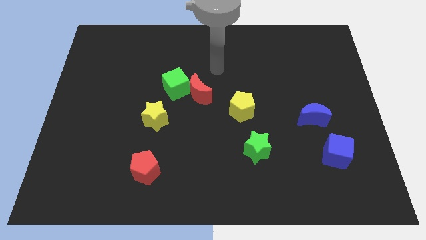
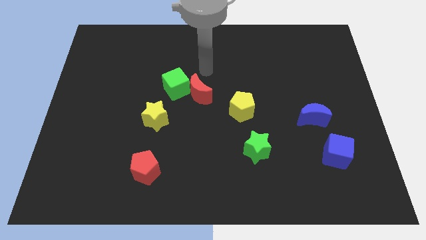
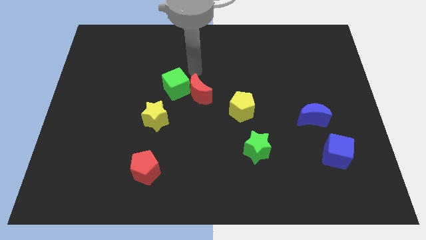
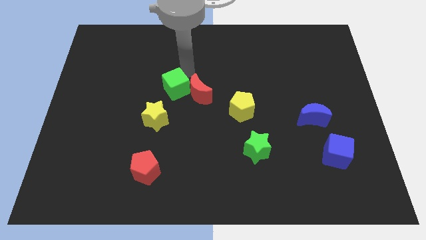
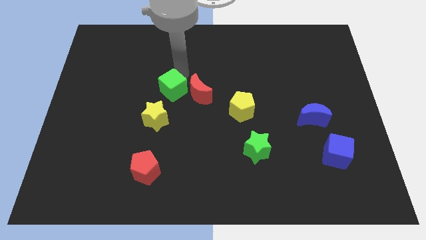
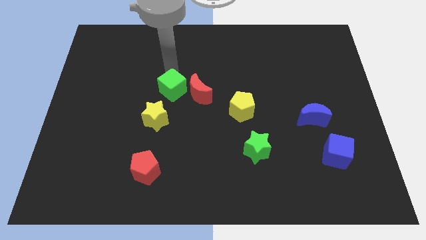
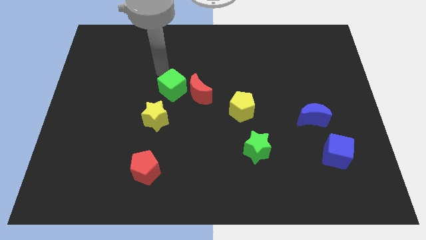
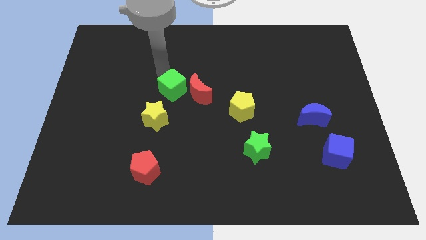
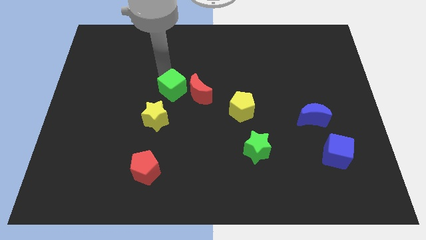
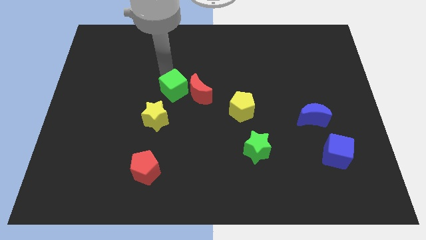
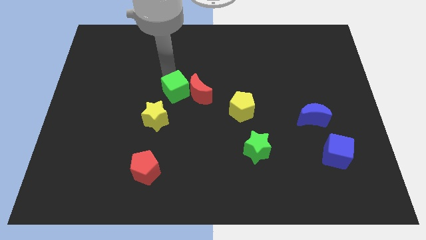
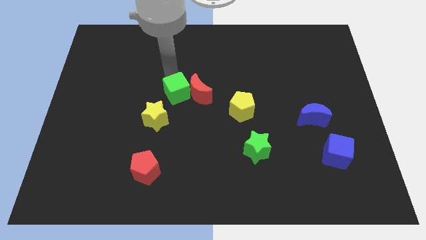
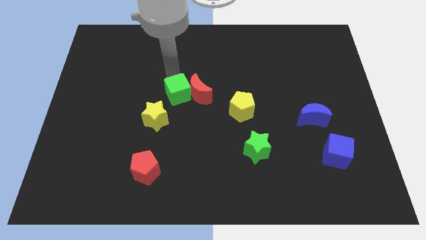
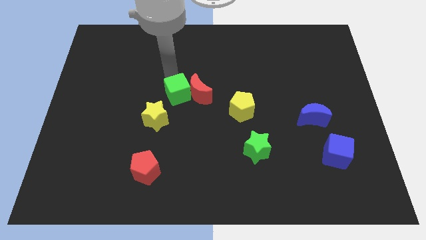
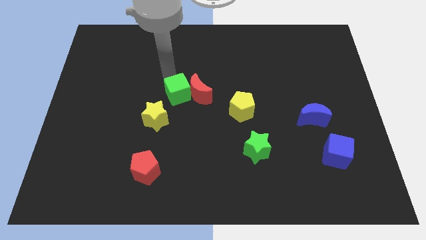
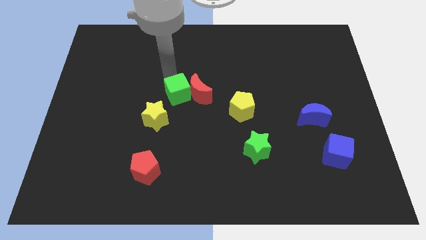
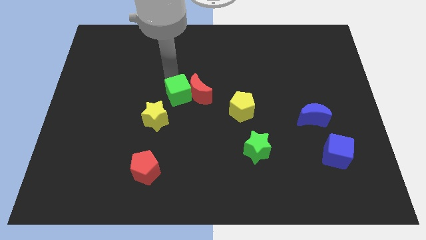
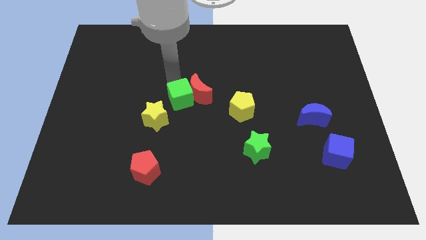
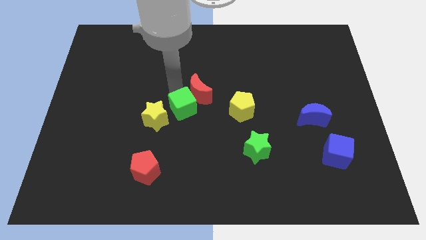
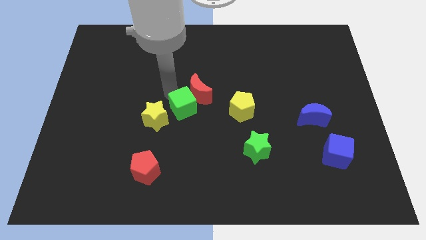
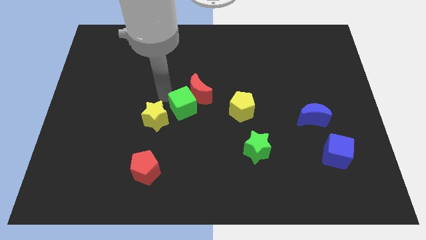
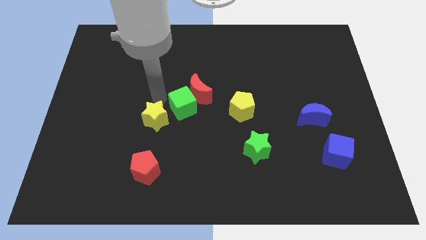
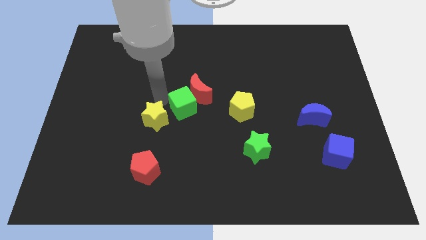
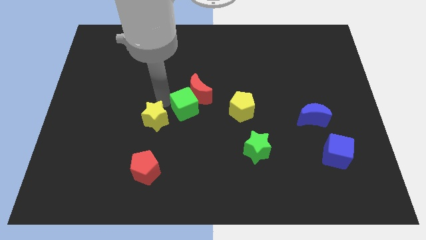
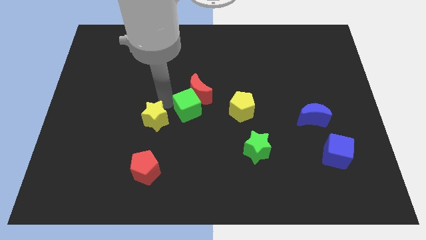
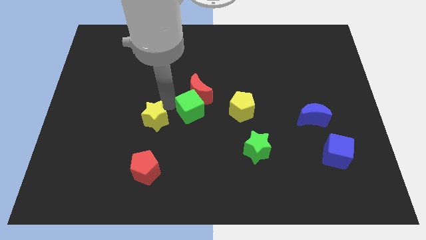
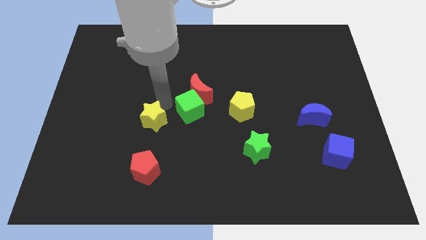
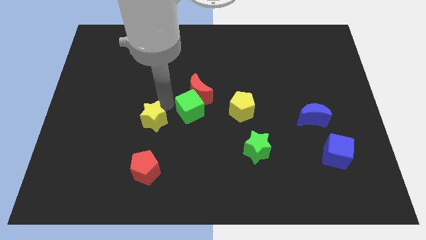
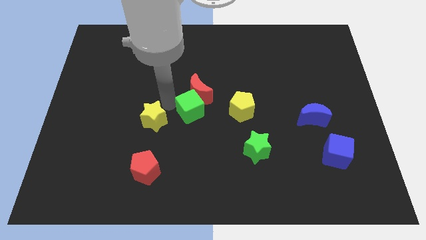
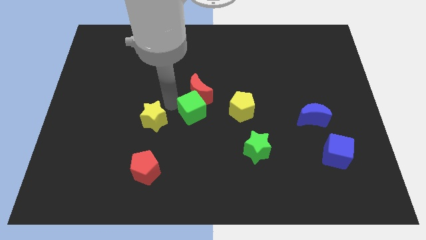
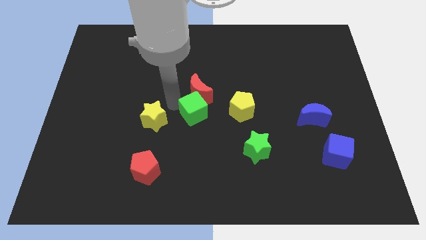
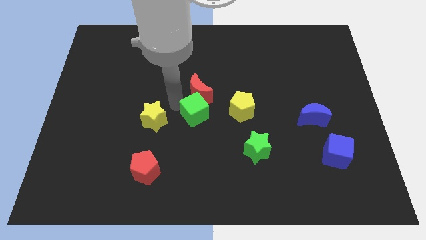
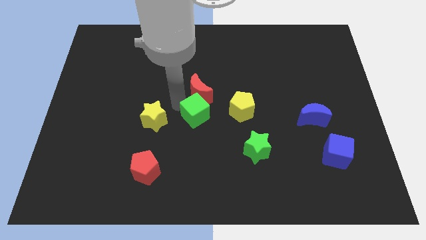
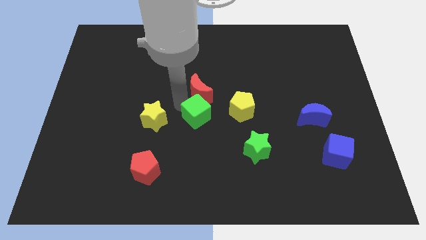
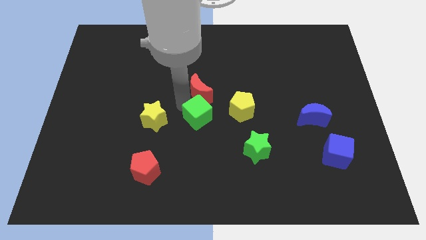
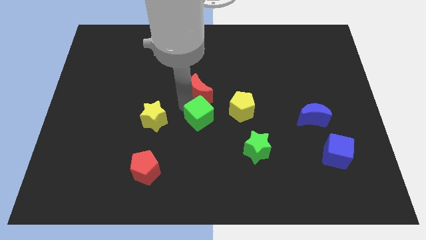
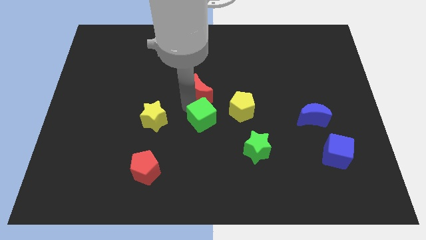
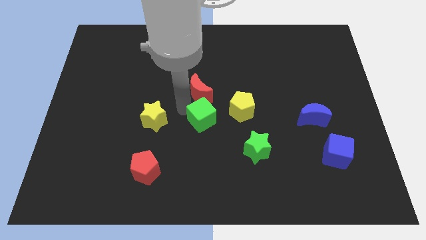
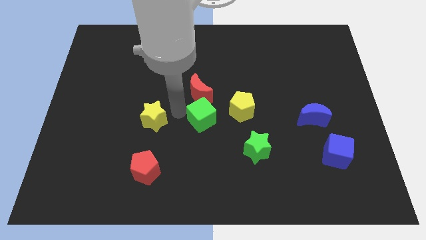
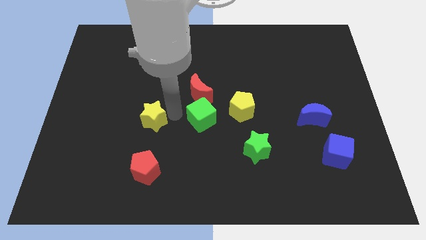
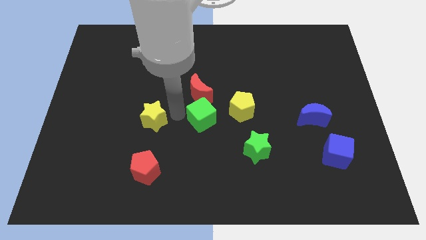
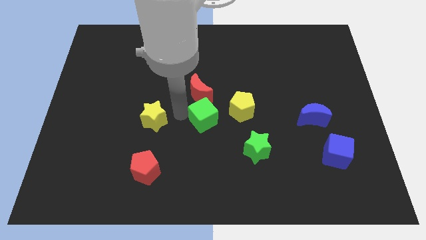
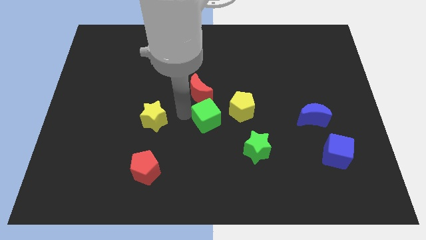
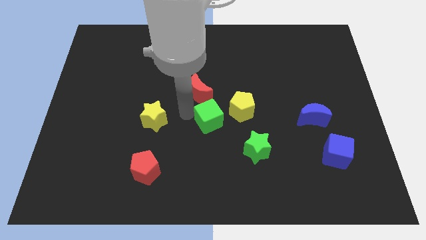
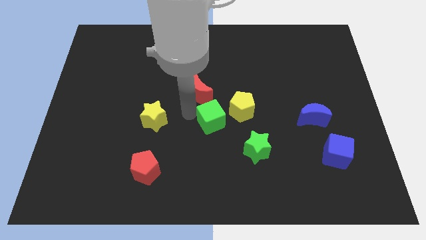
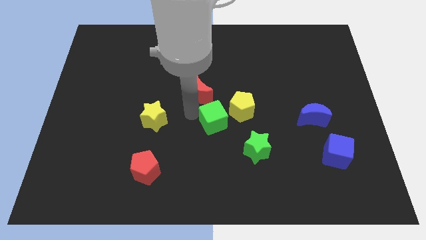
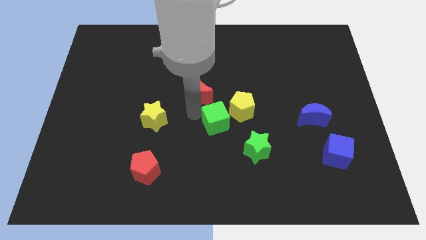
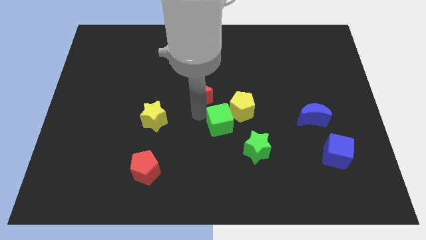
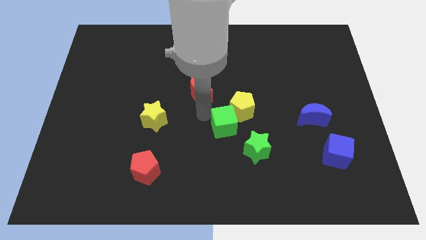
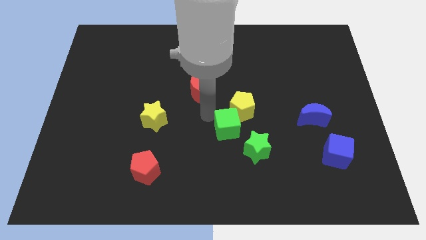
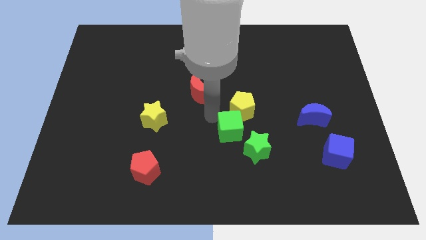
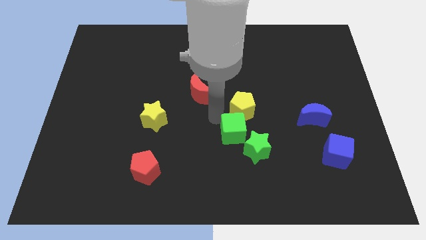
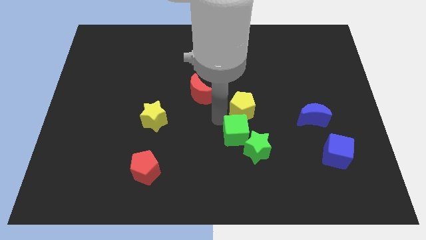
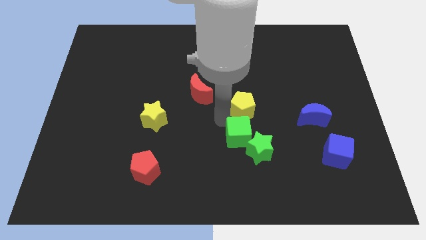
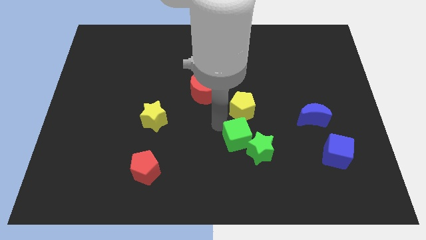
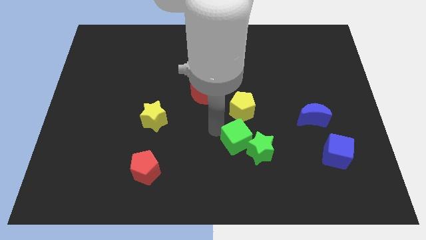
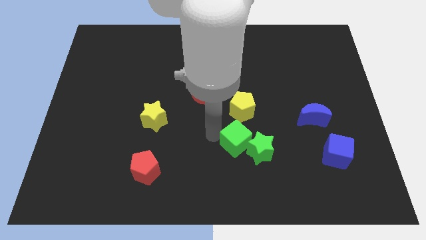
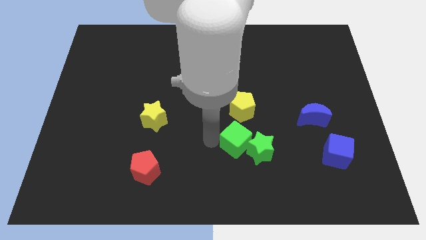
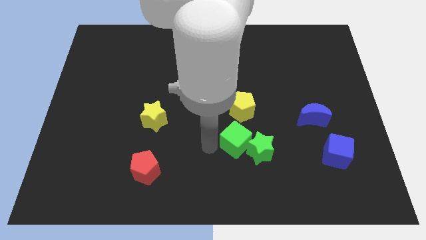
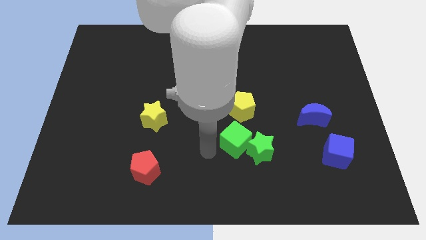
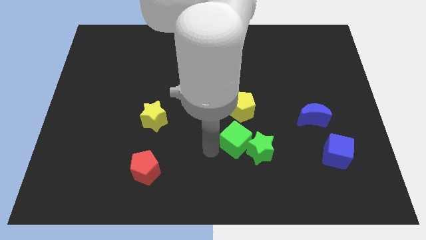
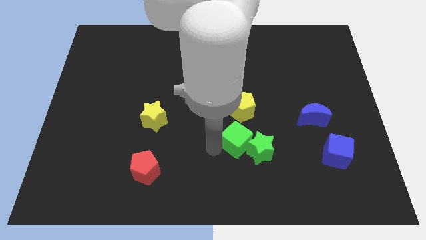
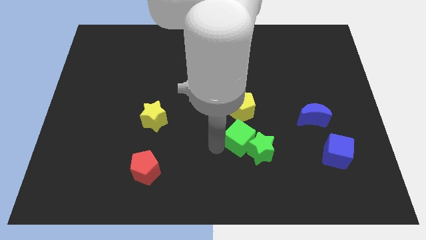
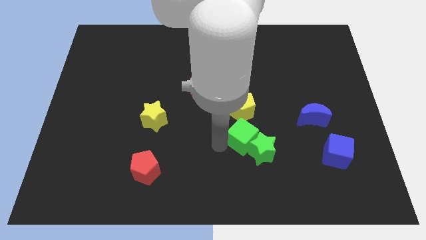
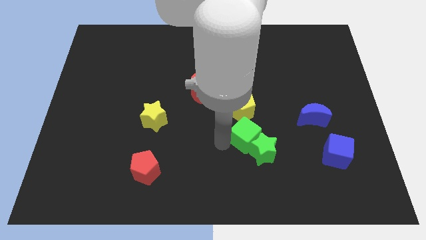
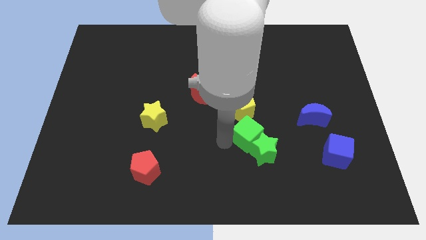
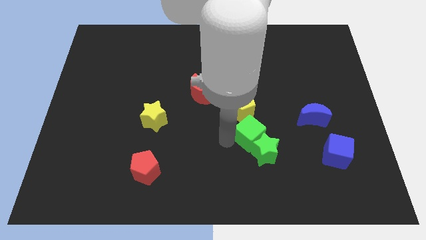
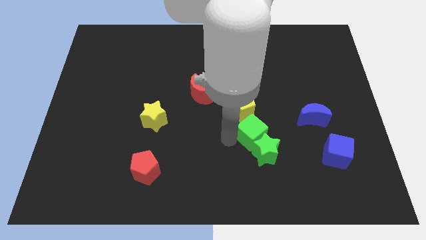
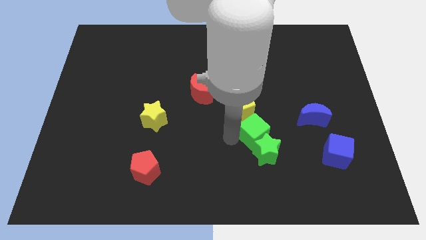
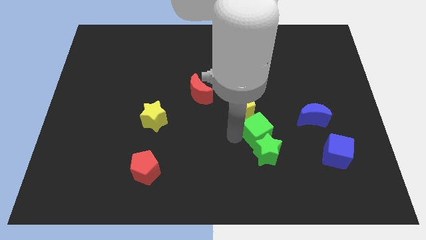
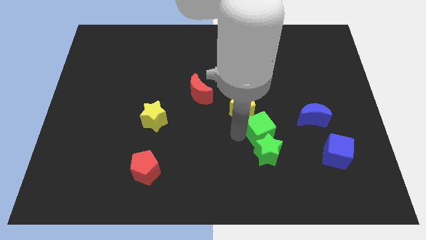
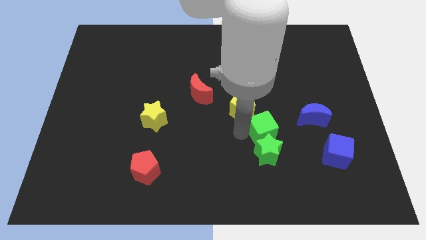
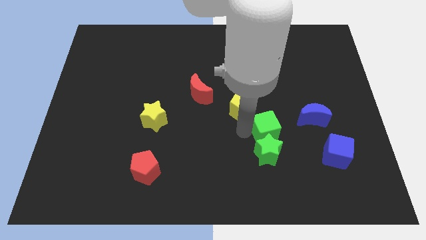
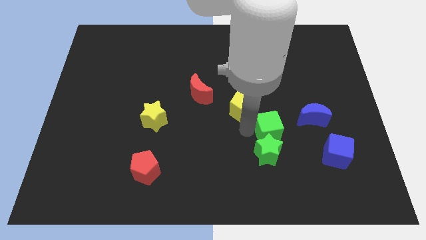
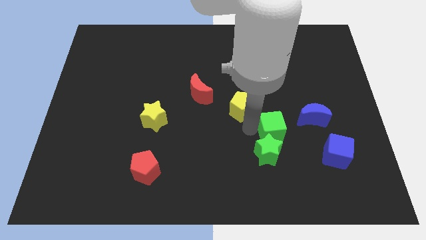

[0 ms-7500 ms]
put the green cube to the bottom left of the blue moon

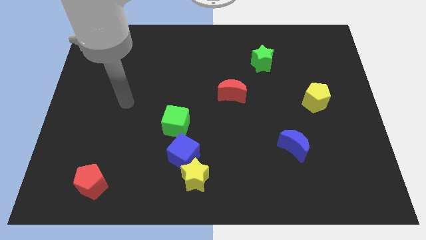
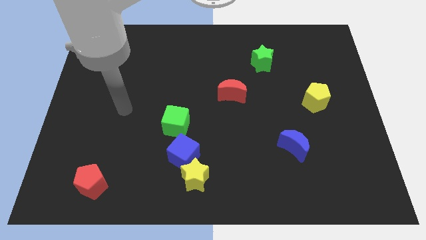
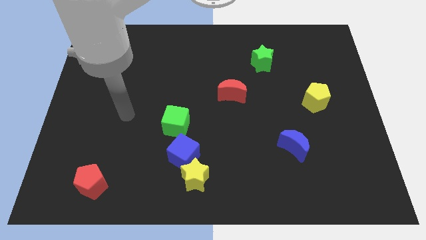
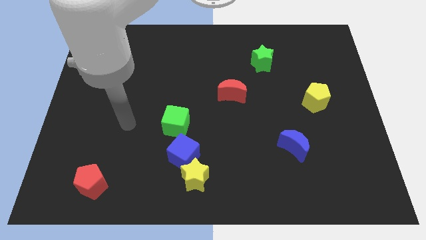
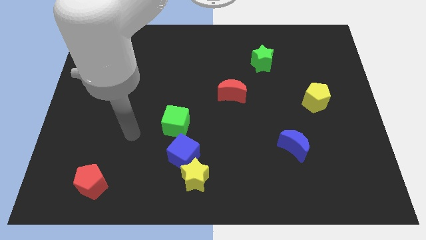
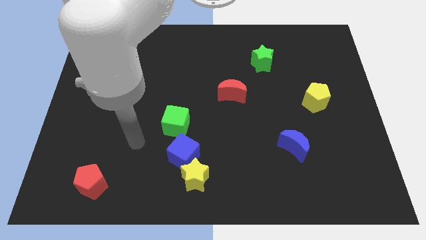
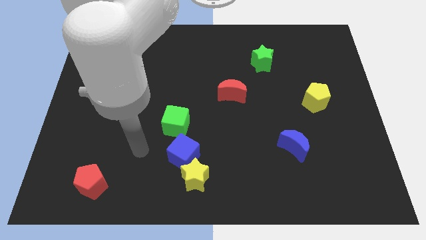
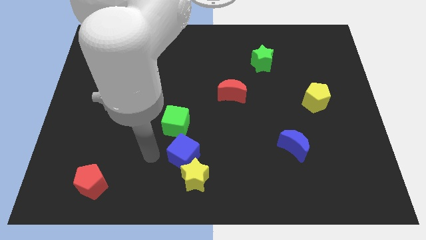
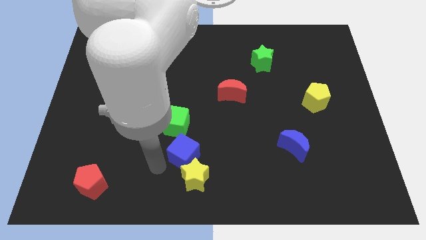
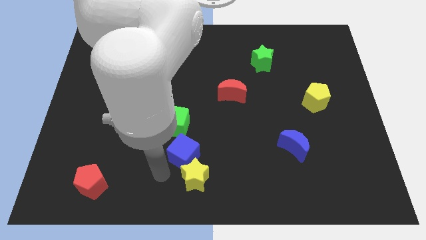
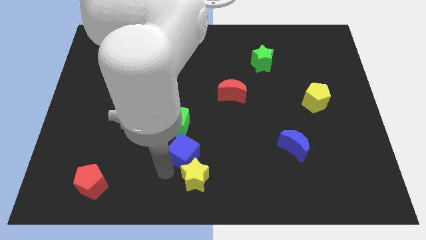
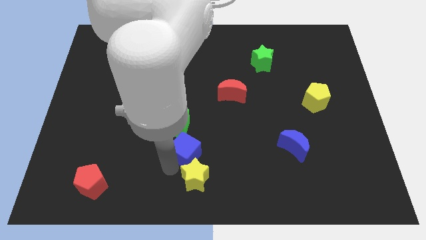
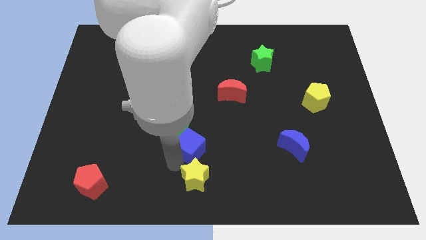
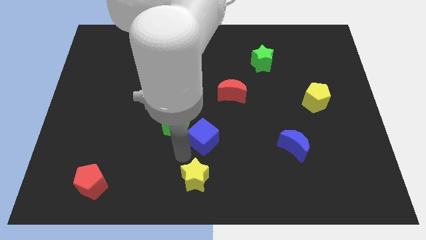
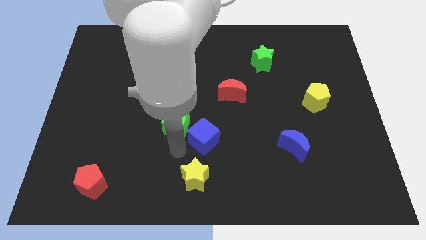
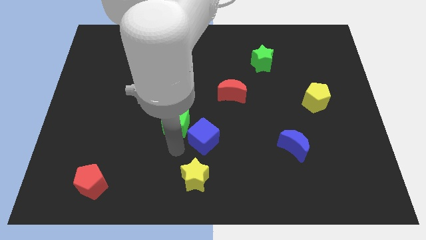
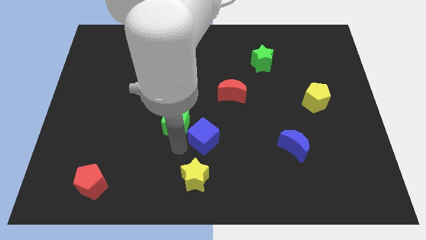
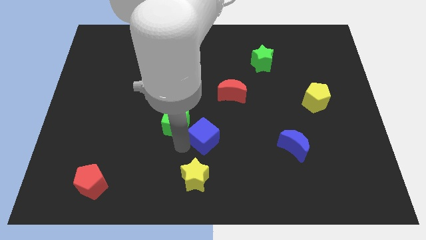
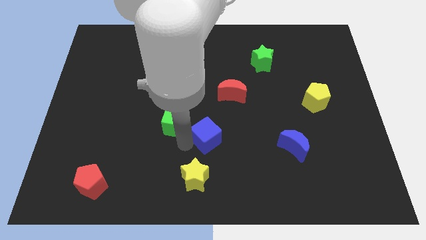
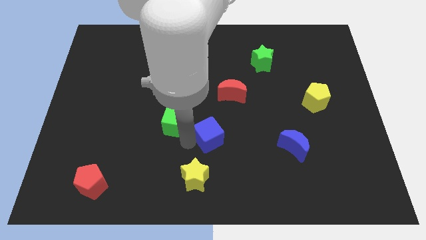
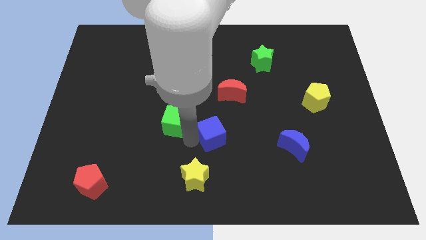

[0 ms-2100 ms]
slide the blue cube to the bottom side of the red moon
